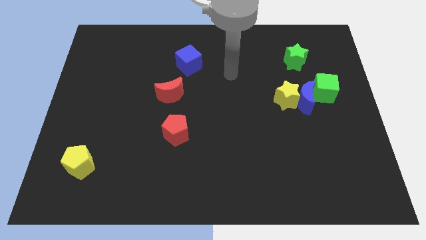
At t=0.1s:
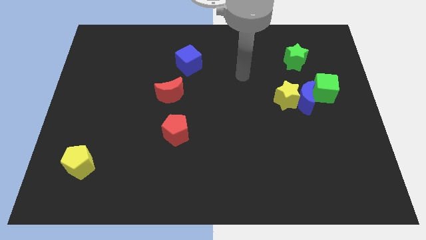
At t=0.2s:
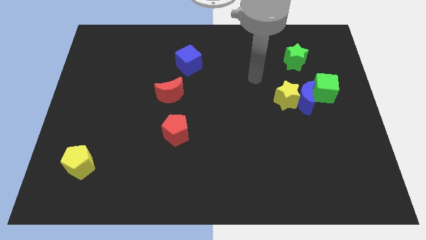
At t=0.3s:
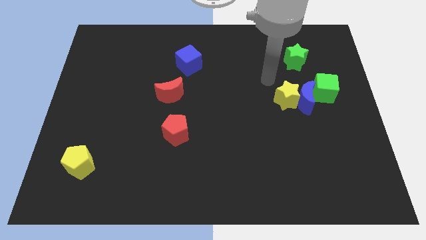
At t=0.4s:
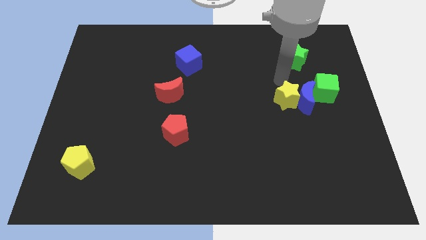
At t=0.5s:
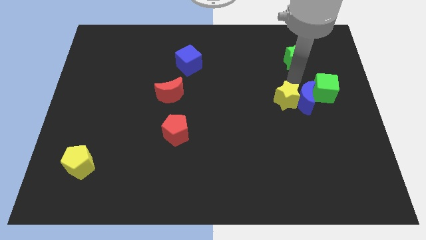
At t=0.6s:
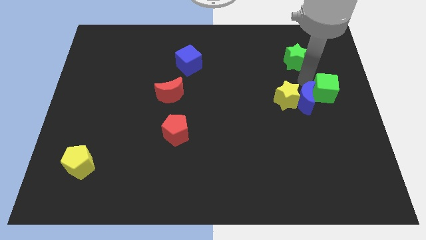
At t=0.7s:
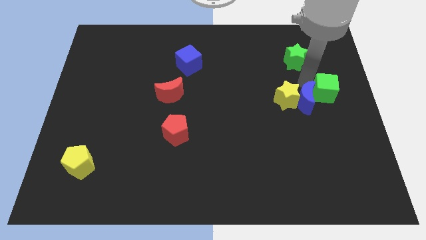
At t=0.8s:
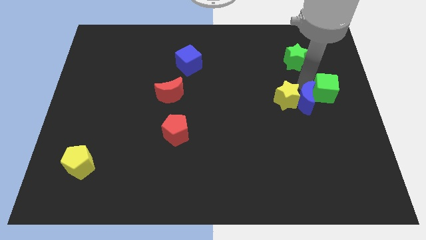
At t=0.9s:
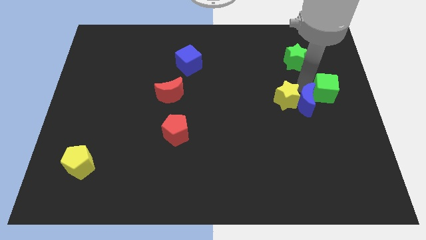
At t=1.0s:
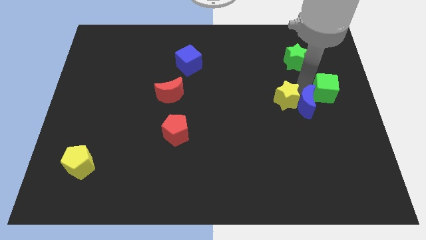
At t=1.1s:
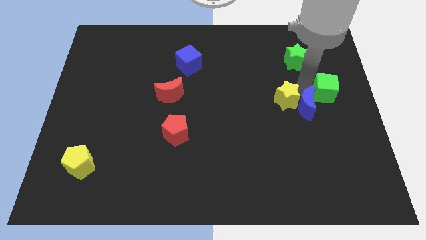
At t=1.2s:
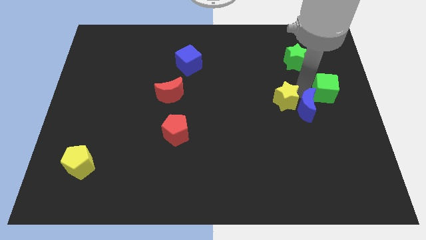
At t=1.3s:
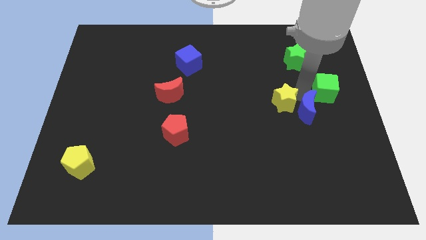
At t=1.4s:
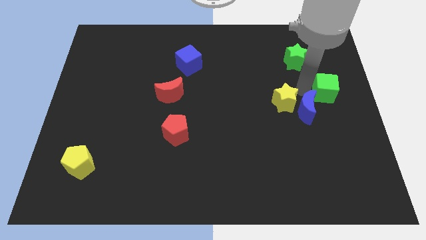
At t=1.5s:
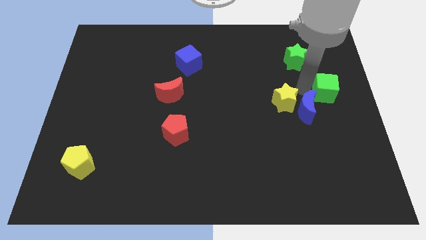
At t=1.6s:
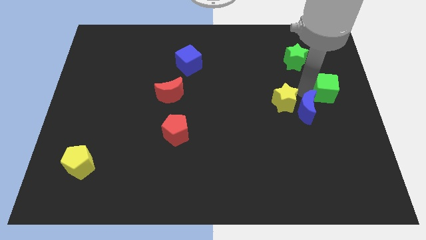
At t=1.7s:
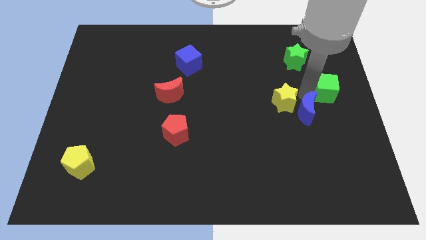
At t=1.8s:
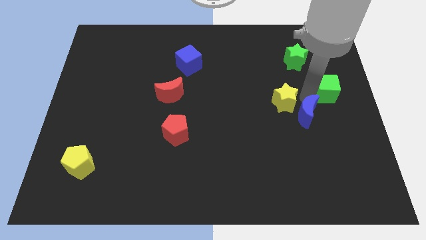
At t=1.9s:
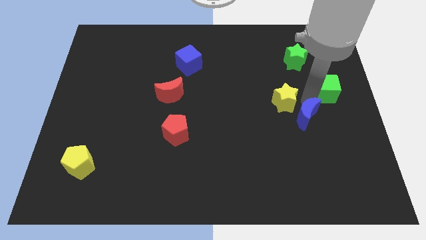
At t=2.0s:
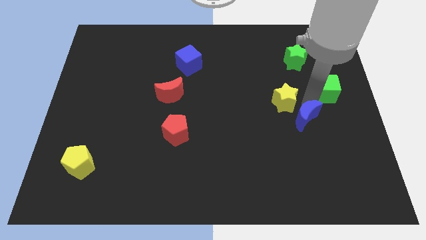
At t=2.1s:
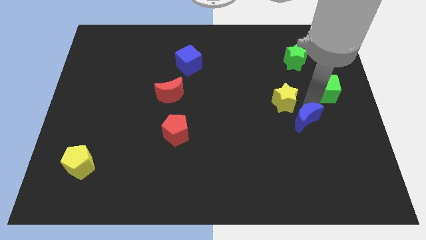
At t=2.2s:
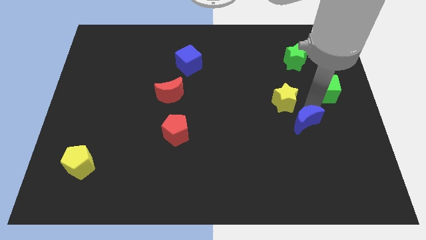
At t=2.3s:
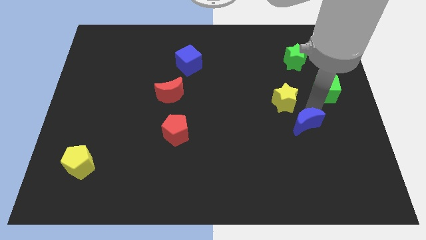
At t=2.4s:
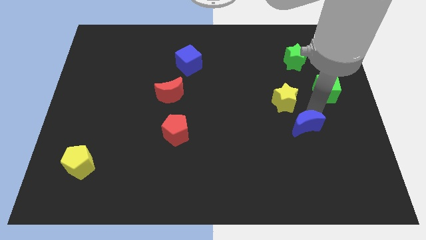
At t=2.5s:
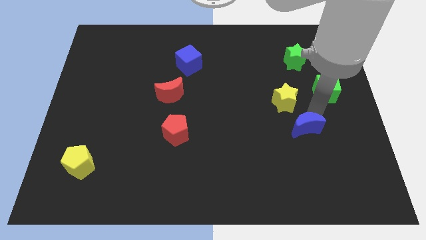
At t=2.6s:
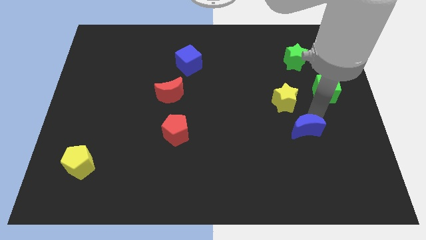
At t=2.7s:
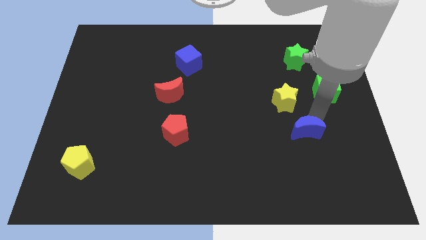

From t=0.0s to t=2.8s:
pull the blue moon apart from the yellow star and green cube

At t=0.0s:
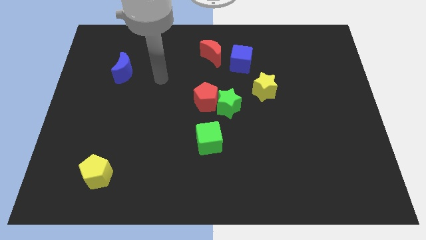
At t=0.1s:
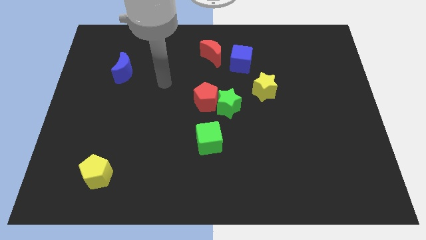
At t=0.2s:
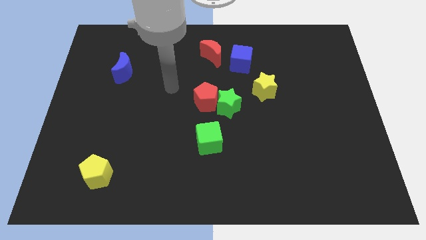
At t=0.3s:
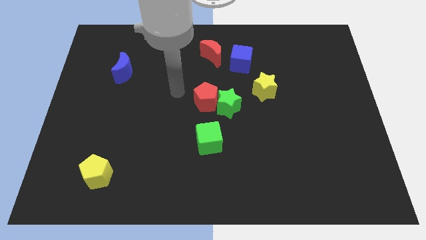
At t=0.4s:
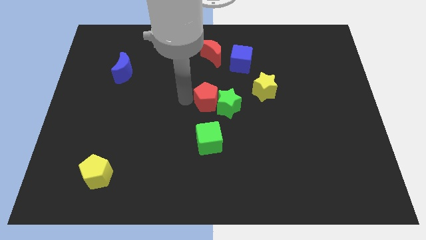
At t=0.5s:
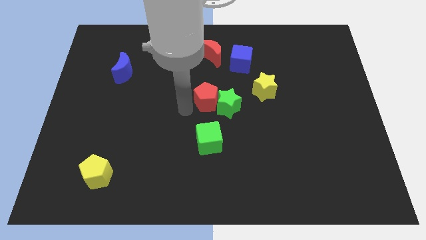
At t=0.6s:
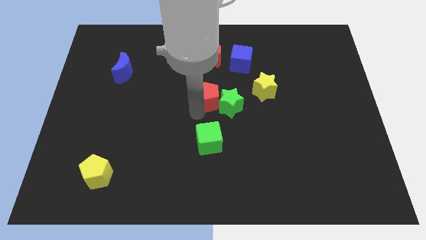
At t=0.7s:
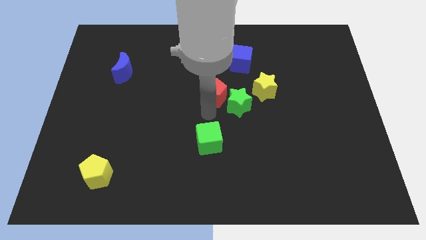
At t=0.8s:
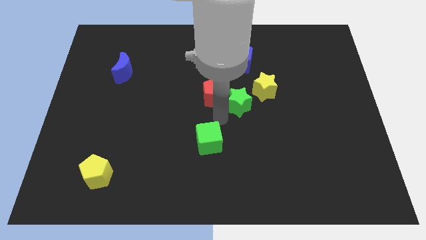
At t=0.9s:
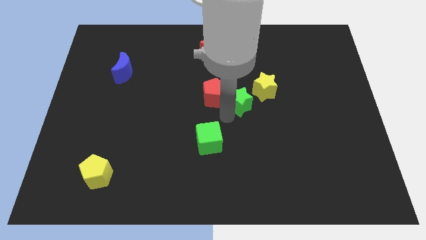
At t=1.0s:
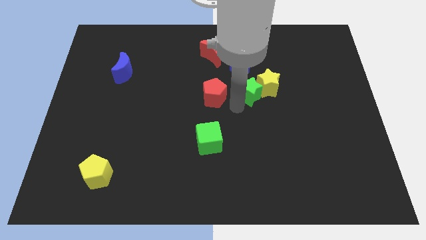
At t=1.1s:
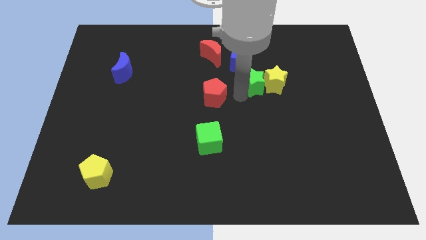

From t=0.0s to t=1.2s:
move the red pentagon away from the green star

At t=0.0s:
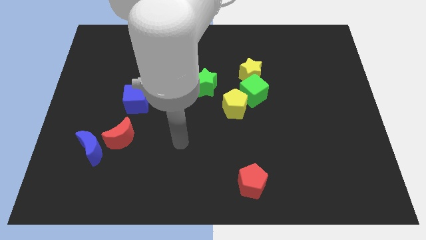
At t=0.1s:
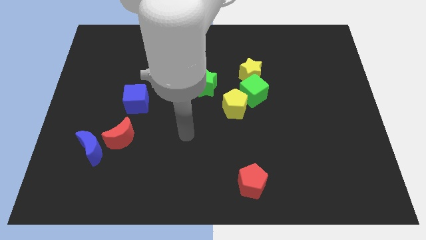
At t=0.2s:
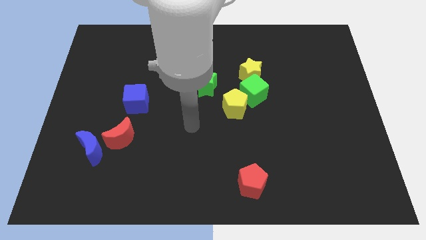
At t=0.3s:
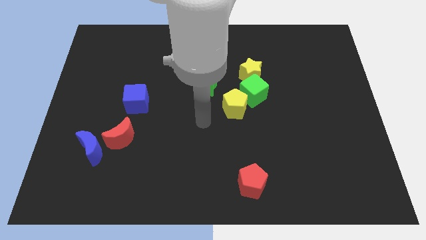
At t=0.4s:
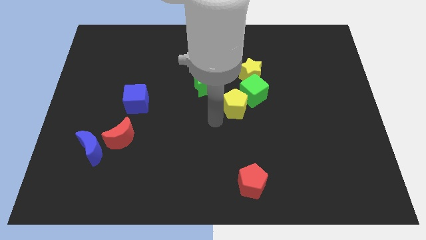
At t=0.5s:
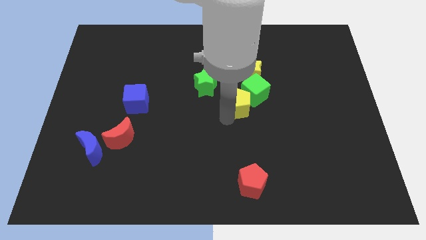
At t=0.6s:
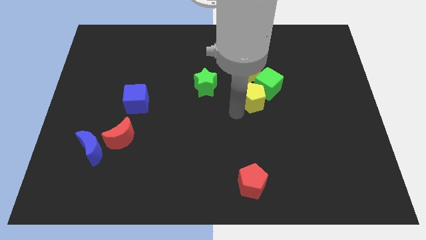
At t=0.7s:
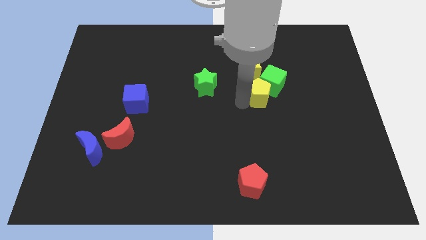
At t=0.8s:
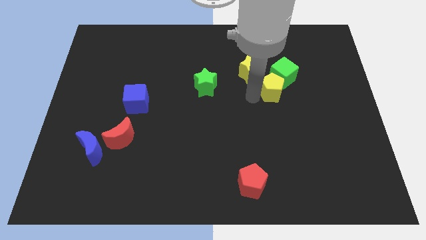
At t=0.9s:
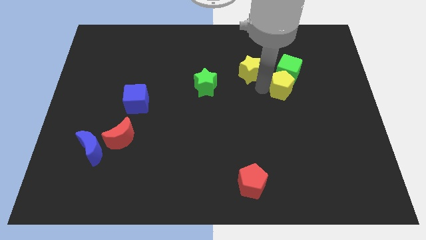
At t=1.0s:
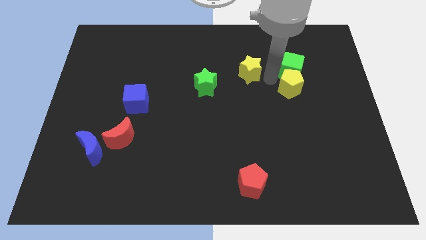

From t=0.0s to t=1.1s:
move the yellow star away from the green cube

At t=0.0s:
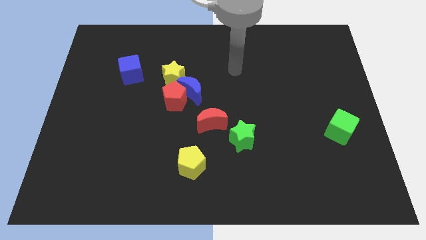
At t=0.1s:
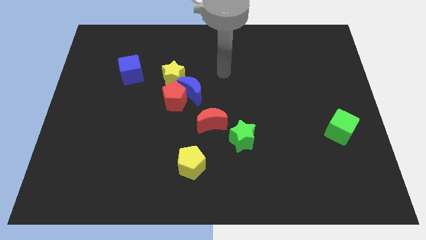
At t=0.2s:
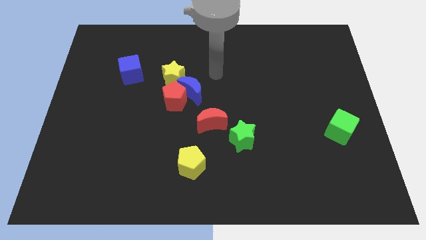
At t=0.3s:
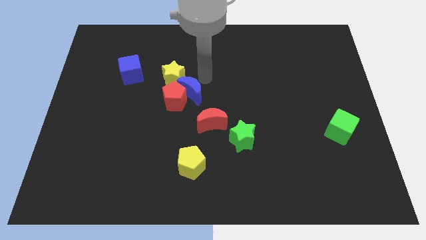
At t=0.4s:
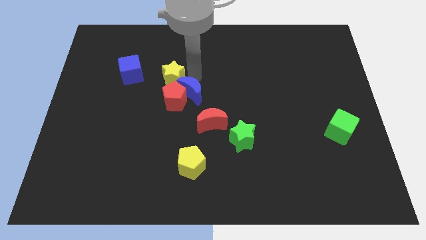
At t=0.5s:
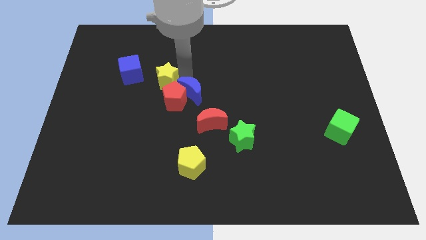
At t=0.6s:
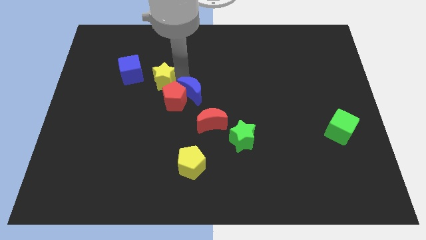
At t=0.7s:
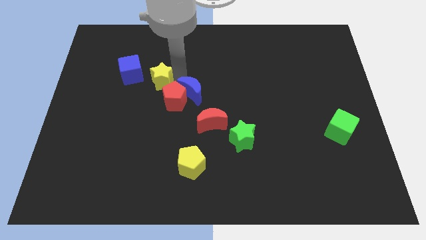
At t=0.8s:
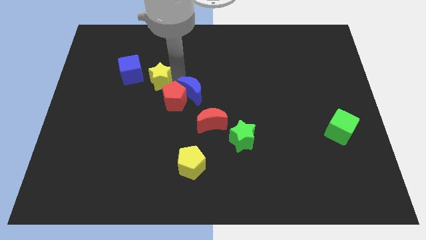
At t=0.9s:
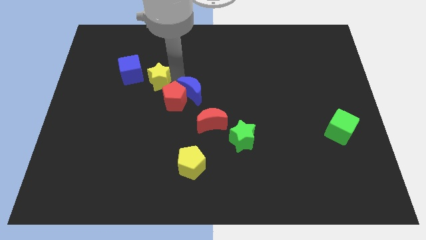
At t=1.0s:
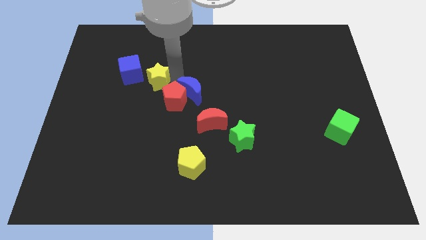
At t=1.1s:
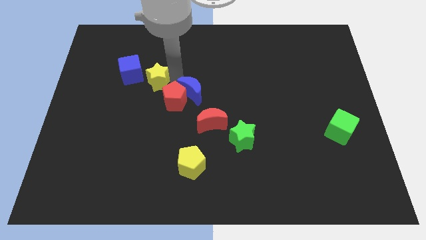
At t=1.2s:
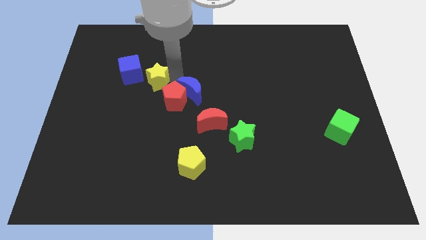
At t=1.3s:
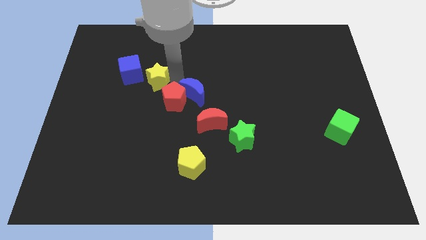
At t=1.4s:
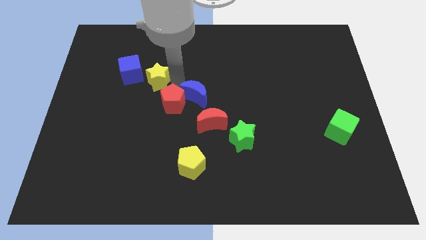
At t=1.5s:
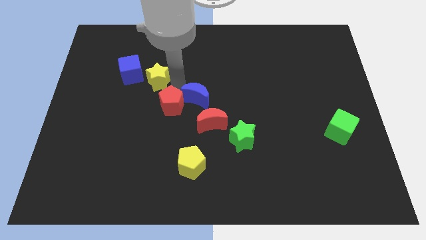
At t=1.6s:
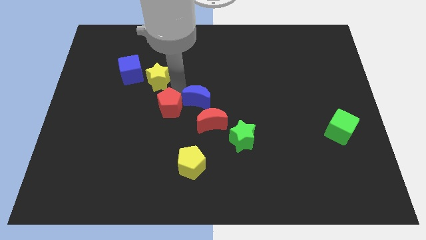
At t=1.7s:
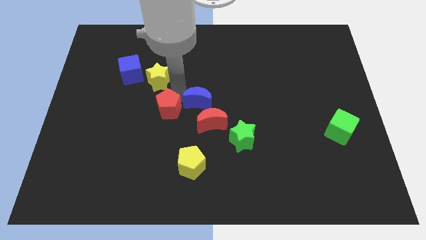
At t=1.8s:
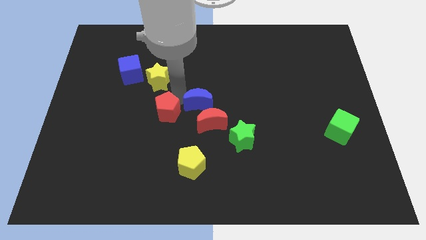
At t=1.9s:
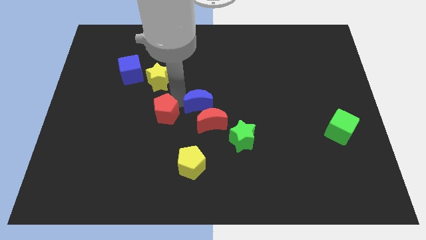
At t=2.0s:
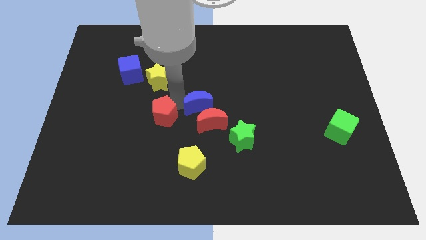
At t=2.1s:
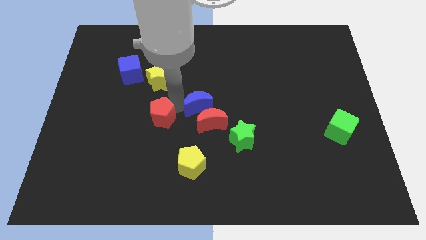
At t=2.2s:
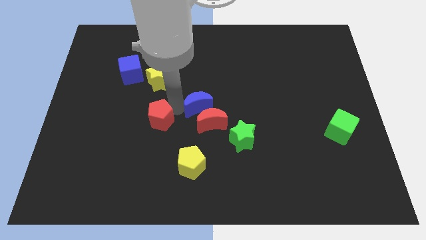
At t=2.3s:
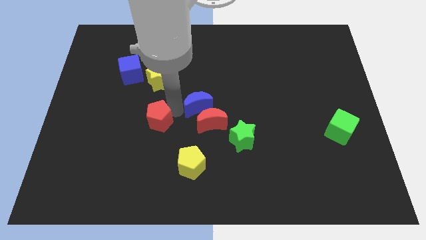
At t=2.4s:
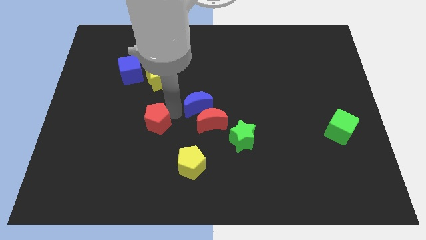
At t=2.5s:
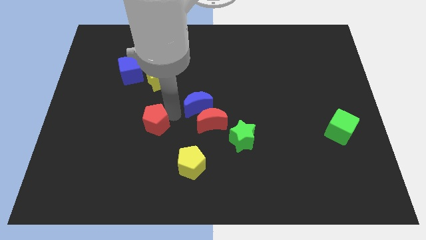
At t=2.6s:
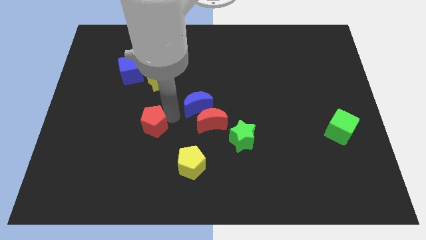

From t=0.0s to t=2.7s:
separate the red pentagon from the blue moon and yellow star

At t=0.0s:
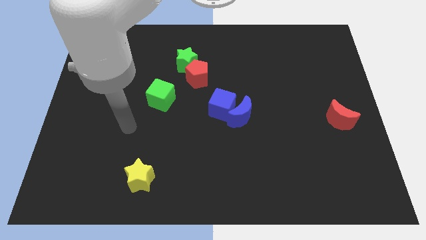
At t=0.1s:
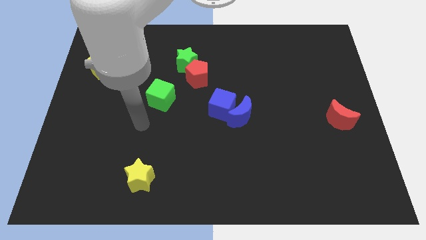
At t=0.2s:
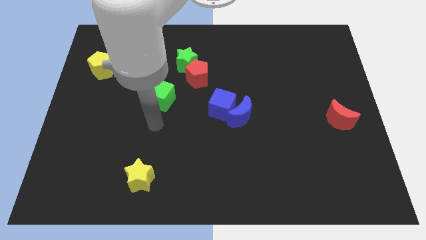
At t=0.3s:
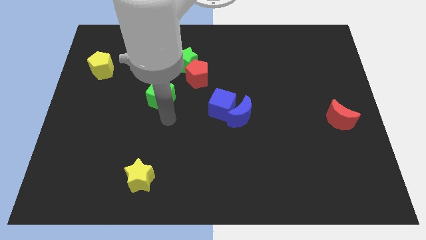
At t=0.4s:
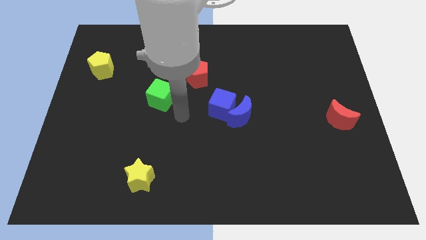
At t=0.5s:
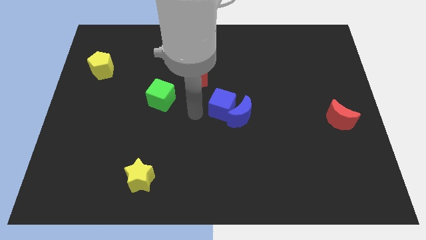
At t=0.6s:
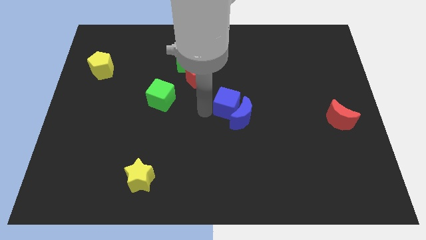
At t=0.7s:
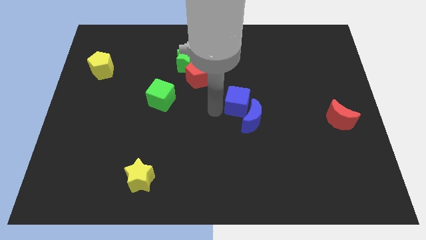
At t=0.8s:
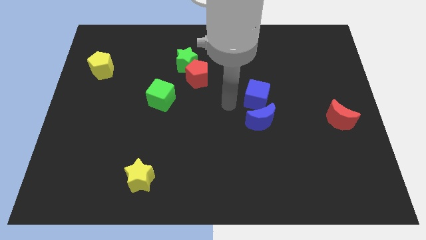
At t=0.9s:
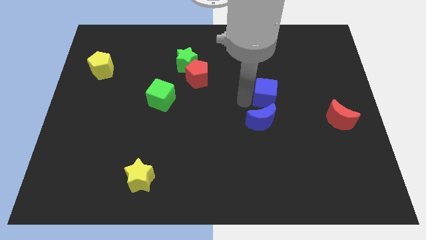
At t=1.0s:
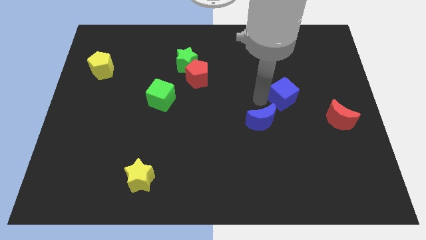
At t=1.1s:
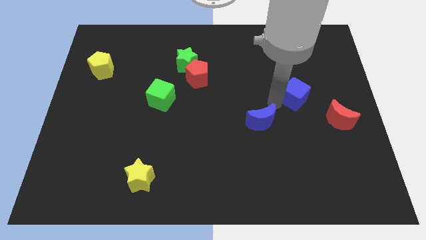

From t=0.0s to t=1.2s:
move the blue moon away from the blue cube

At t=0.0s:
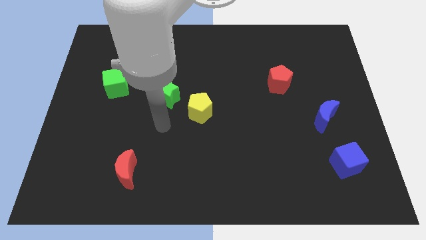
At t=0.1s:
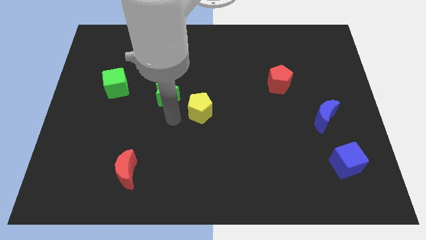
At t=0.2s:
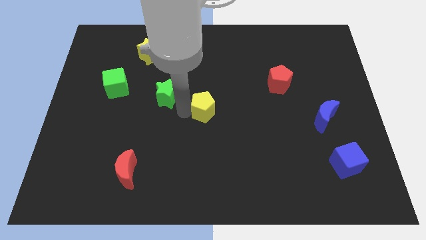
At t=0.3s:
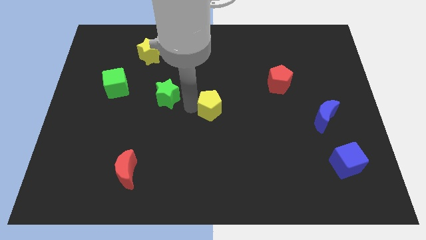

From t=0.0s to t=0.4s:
move the green star away from the yellow pentagon
